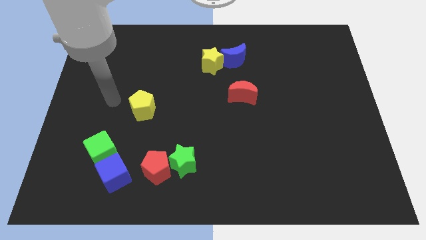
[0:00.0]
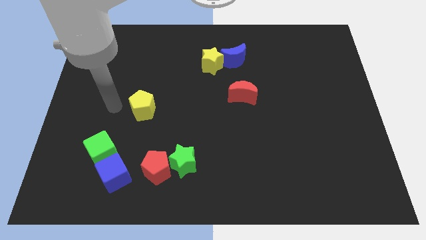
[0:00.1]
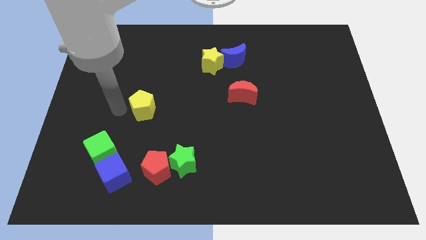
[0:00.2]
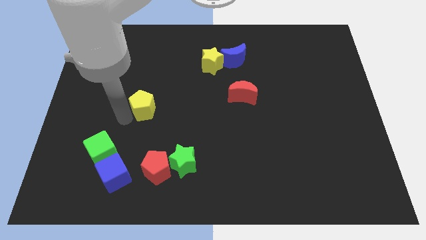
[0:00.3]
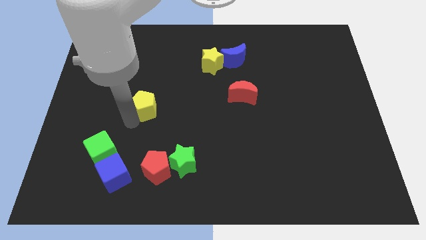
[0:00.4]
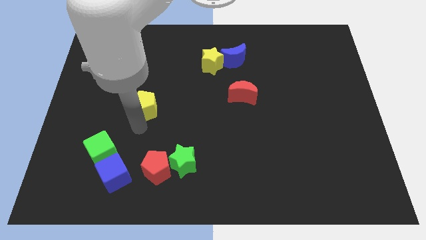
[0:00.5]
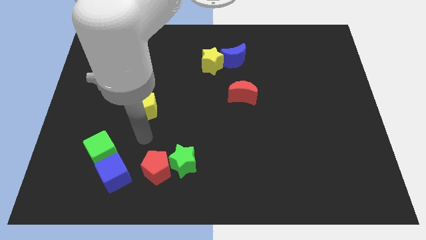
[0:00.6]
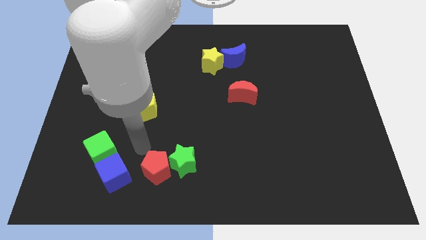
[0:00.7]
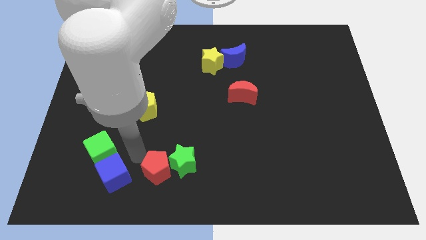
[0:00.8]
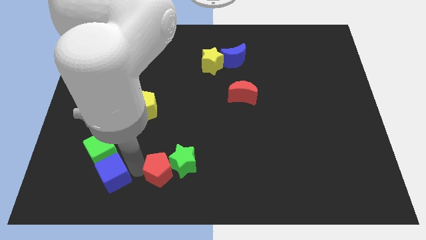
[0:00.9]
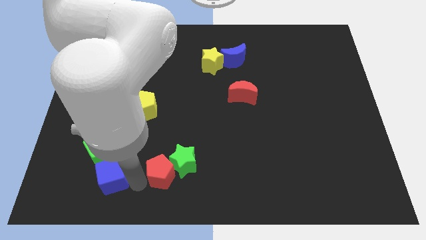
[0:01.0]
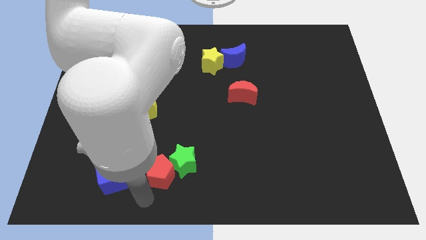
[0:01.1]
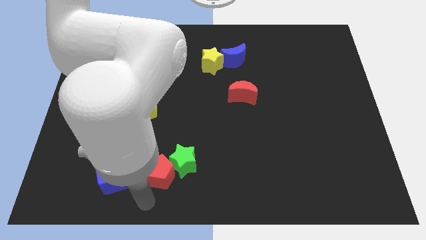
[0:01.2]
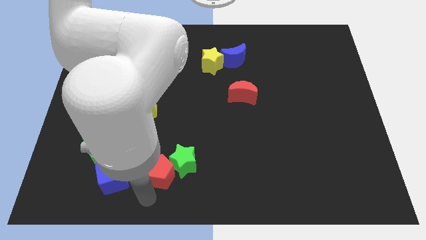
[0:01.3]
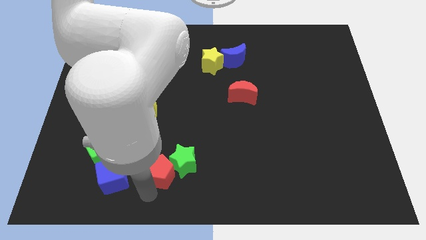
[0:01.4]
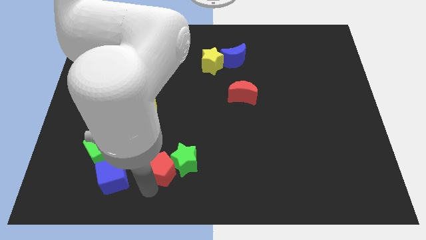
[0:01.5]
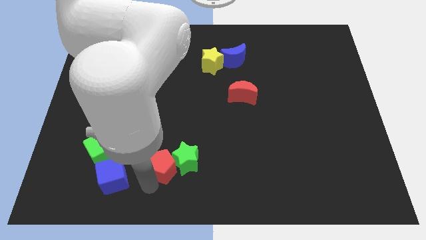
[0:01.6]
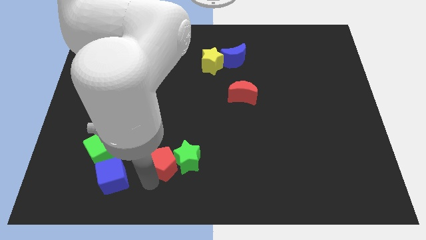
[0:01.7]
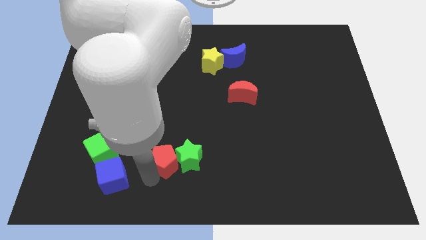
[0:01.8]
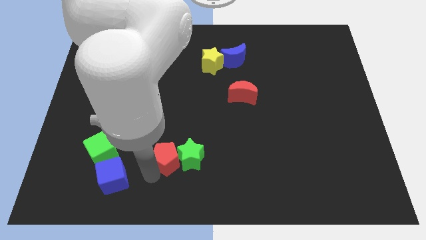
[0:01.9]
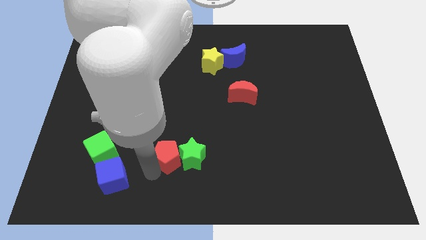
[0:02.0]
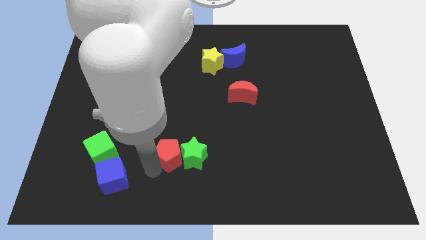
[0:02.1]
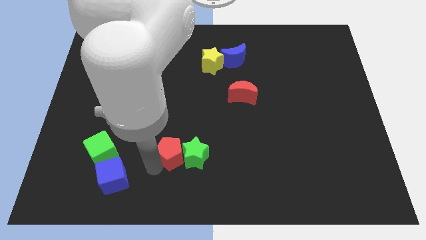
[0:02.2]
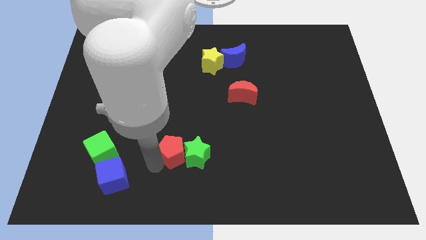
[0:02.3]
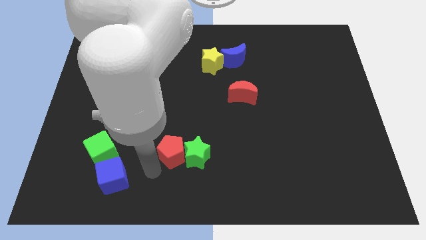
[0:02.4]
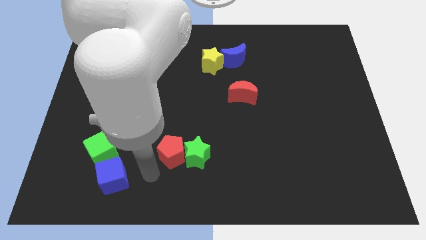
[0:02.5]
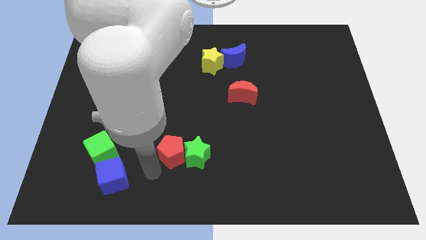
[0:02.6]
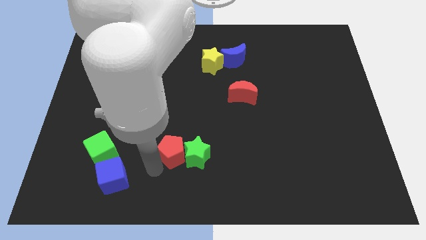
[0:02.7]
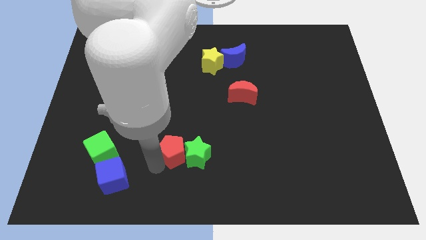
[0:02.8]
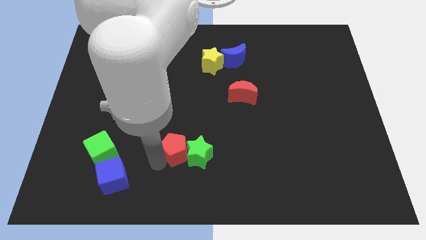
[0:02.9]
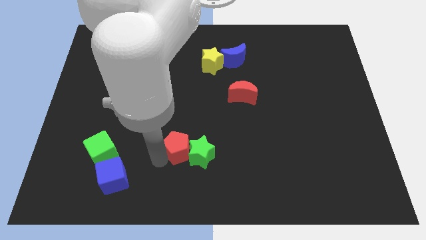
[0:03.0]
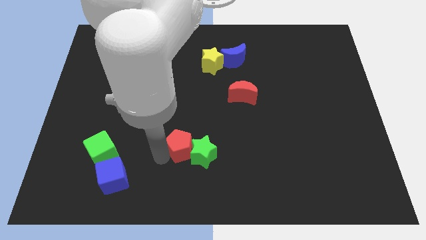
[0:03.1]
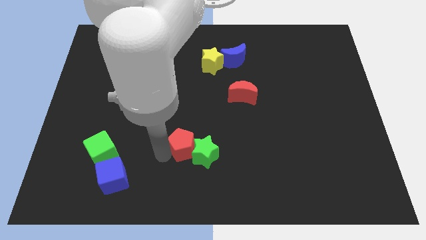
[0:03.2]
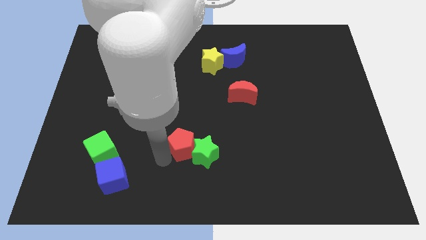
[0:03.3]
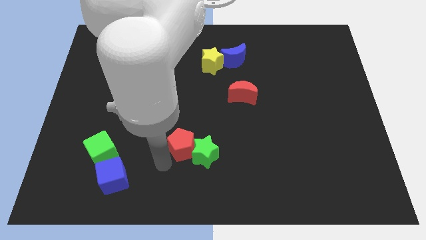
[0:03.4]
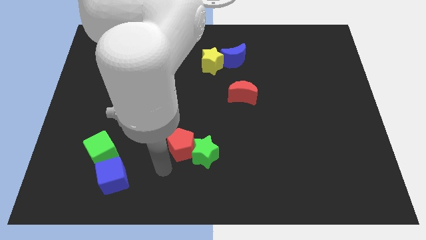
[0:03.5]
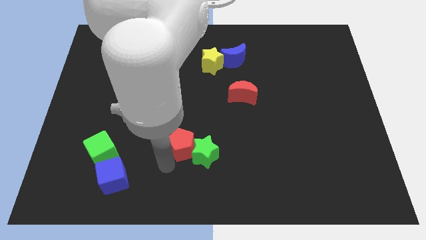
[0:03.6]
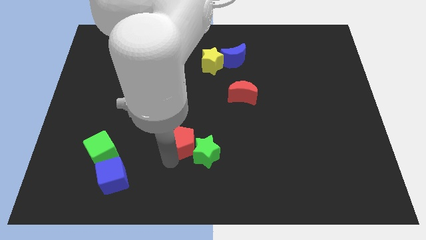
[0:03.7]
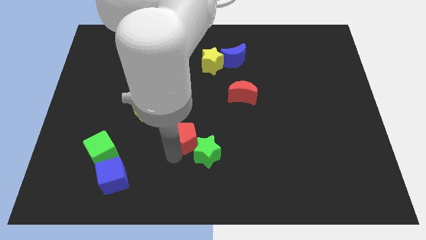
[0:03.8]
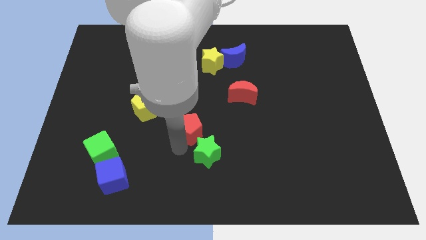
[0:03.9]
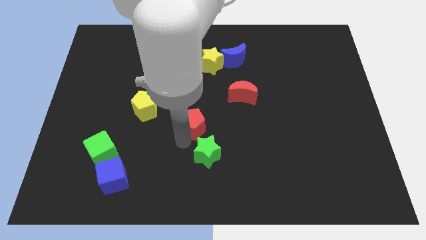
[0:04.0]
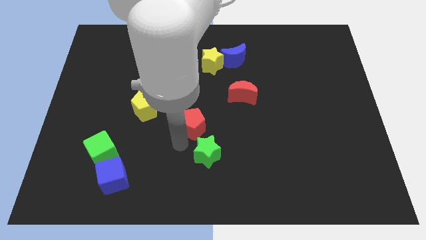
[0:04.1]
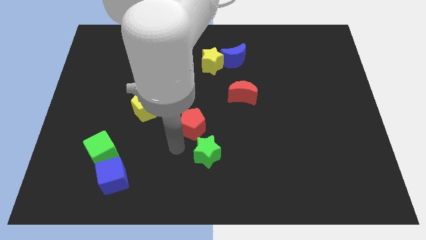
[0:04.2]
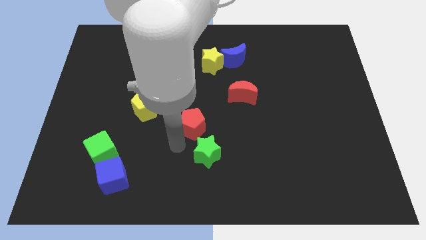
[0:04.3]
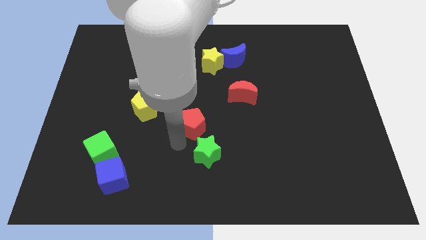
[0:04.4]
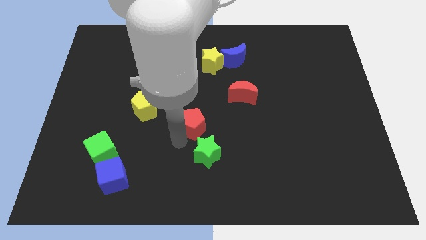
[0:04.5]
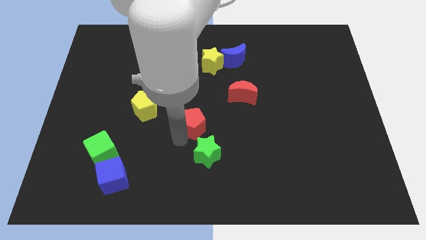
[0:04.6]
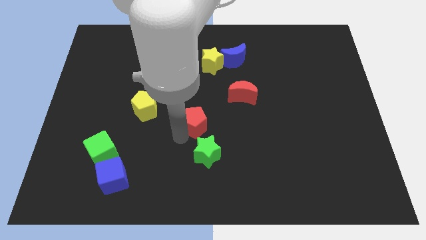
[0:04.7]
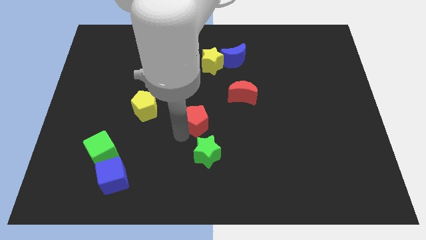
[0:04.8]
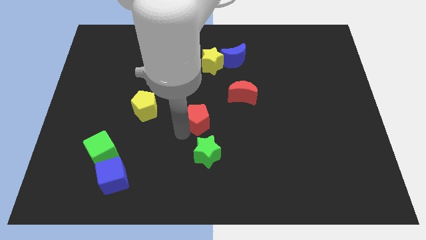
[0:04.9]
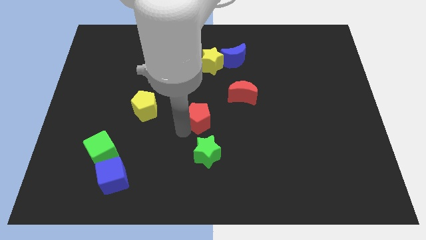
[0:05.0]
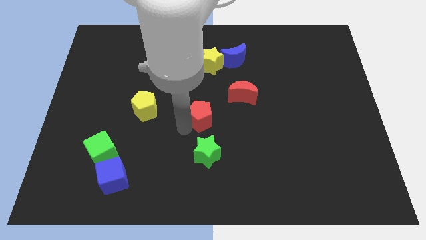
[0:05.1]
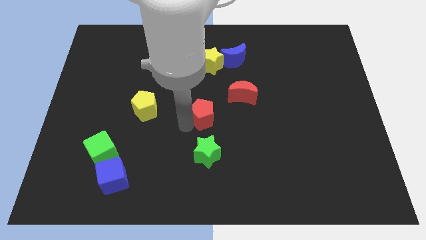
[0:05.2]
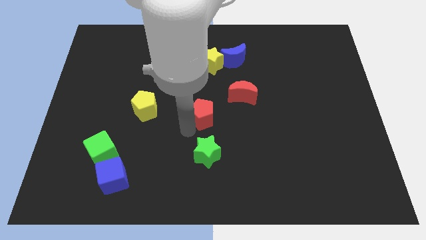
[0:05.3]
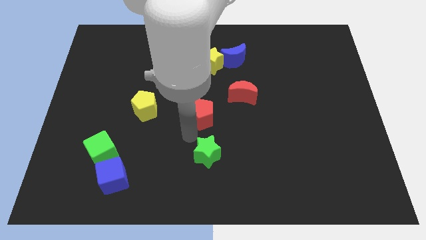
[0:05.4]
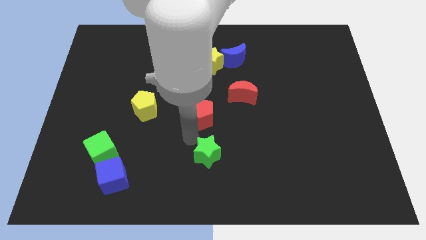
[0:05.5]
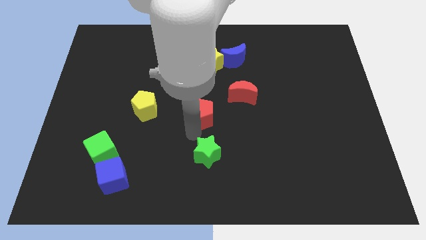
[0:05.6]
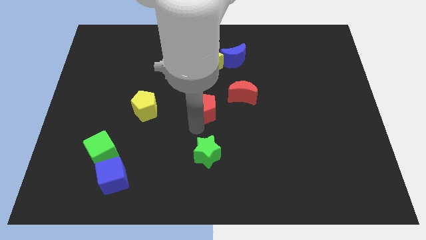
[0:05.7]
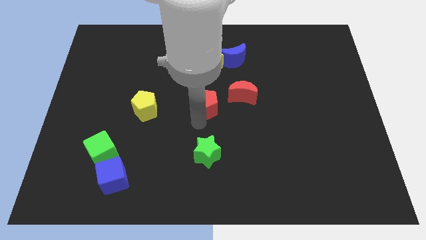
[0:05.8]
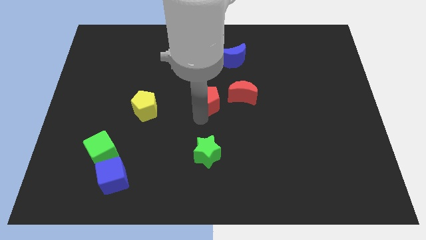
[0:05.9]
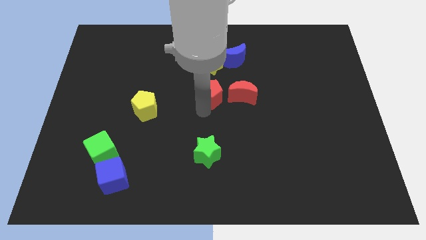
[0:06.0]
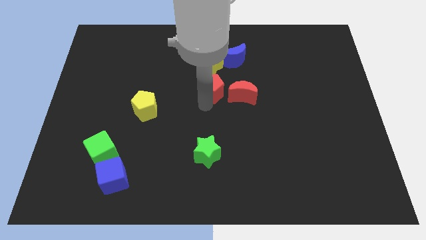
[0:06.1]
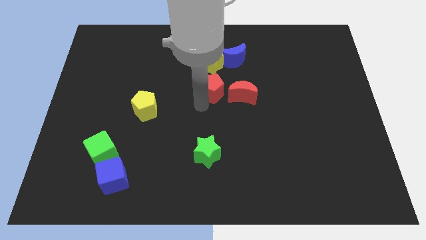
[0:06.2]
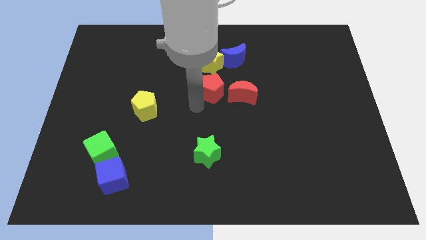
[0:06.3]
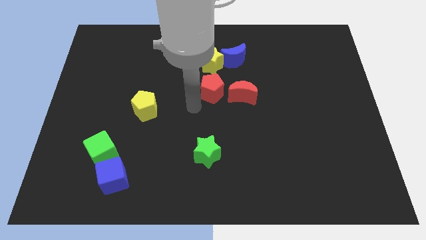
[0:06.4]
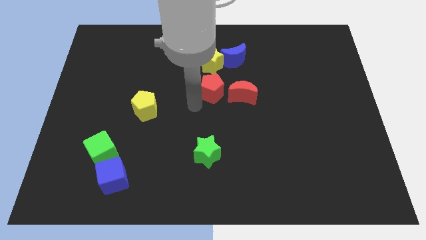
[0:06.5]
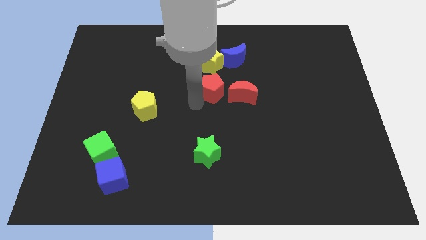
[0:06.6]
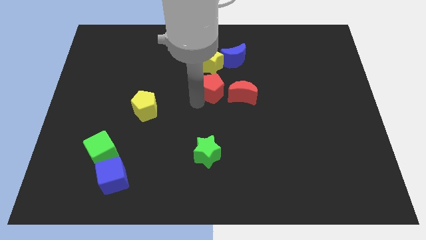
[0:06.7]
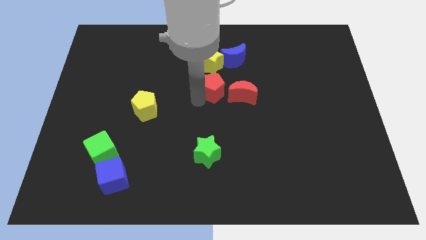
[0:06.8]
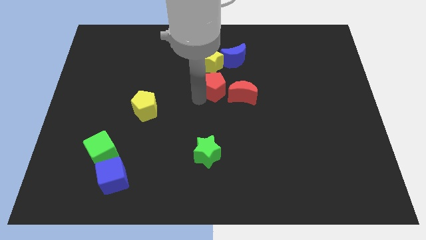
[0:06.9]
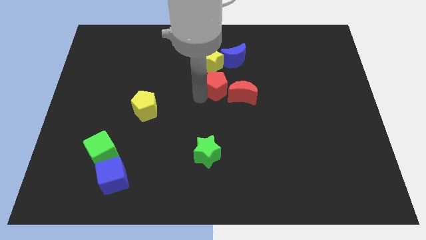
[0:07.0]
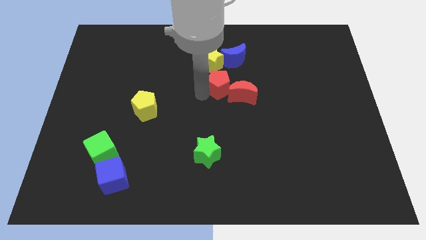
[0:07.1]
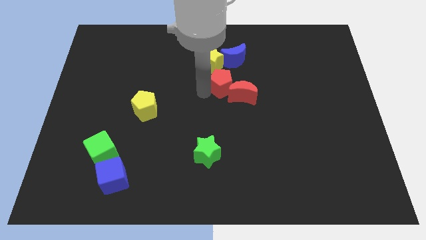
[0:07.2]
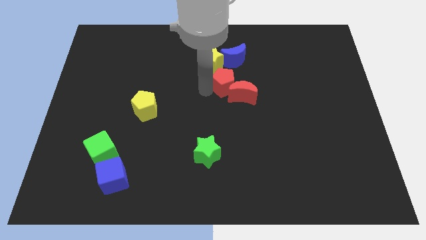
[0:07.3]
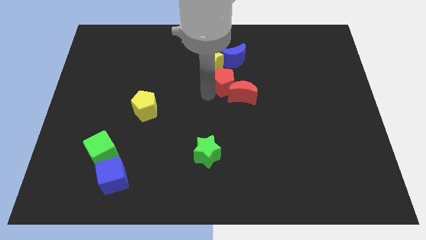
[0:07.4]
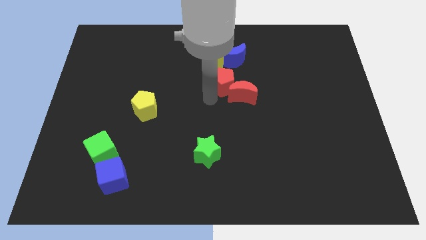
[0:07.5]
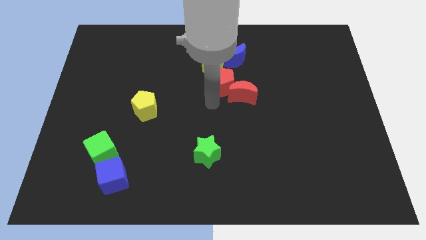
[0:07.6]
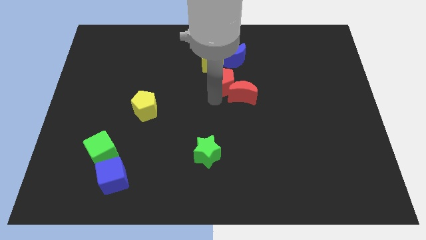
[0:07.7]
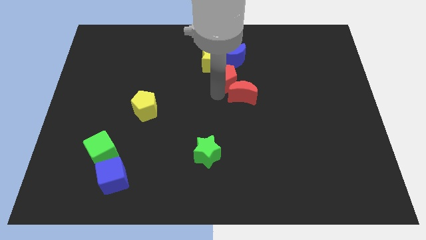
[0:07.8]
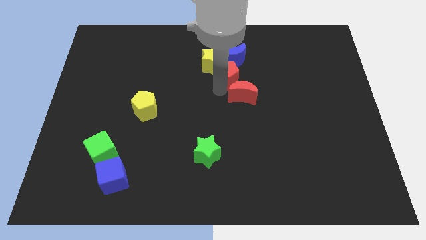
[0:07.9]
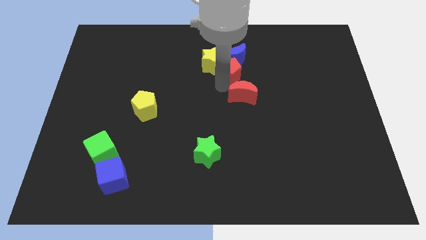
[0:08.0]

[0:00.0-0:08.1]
put the red pentagon next to the blue moon
